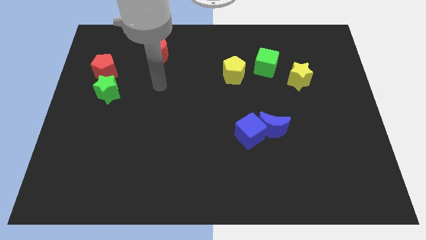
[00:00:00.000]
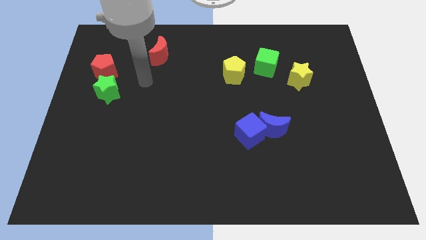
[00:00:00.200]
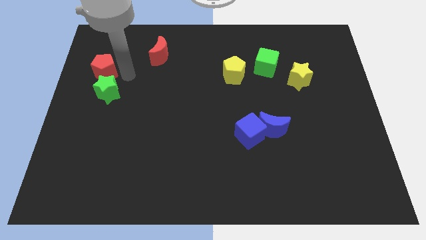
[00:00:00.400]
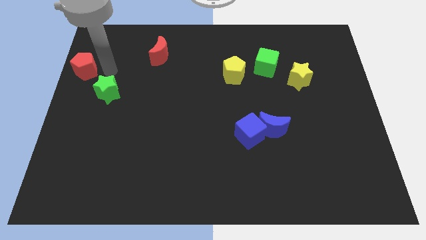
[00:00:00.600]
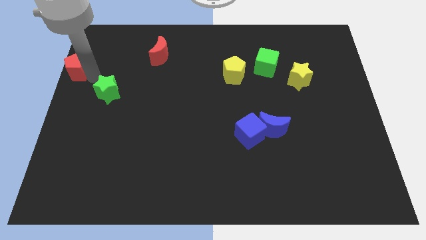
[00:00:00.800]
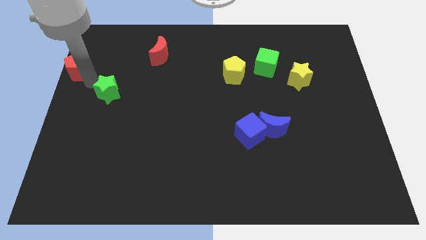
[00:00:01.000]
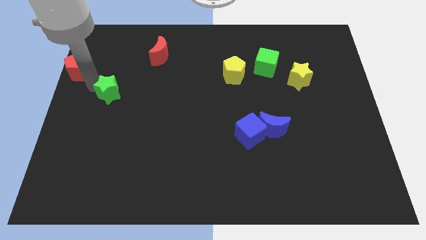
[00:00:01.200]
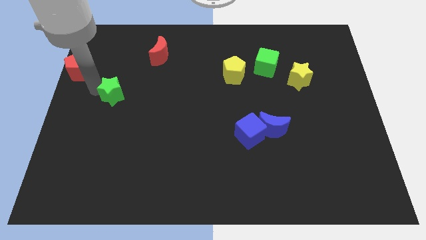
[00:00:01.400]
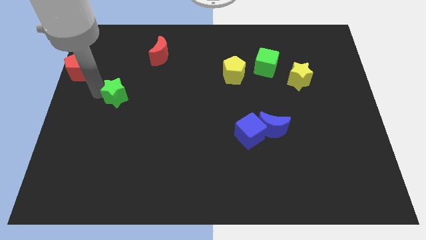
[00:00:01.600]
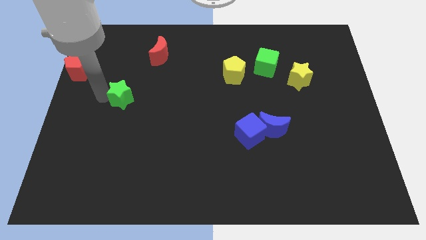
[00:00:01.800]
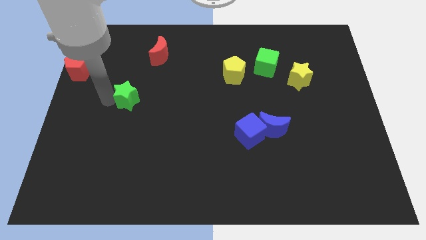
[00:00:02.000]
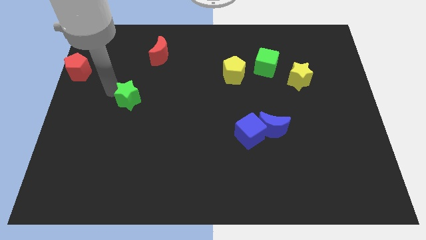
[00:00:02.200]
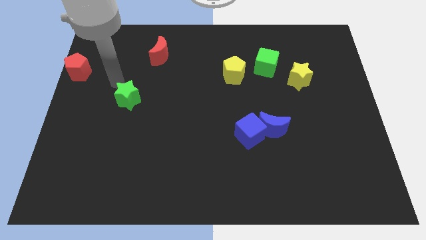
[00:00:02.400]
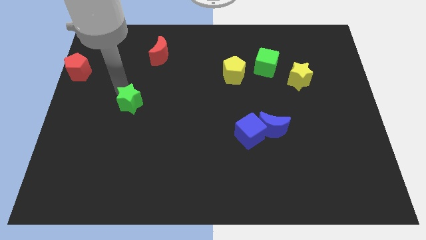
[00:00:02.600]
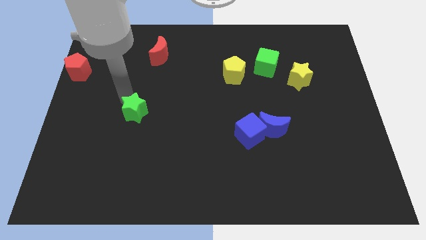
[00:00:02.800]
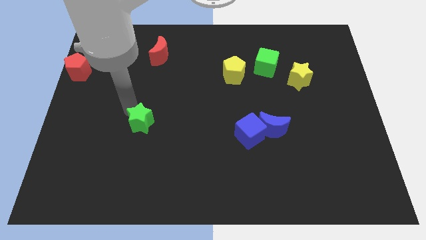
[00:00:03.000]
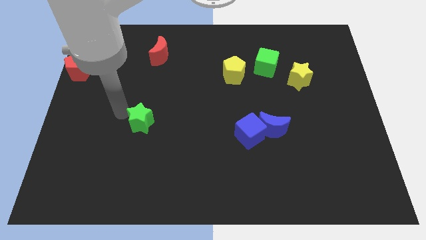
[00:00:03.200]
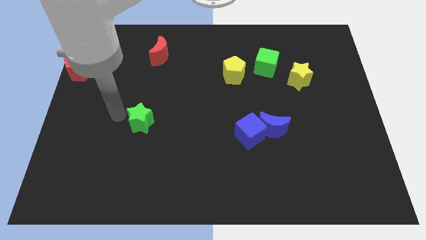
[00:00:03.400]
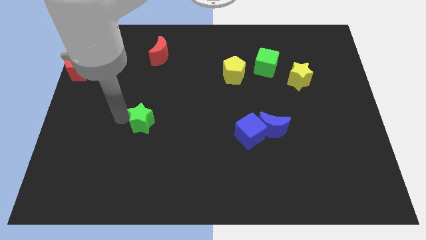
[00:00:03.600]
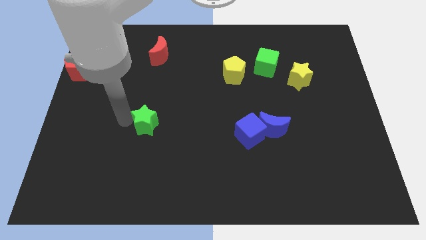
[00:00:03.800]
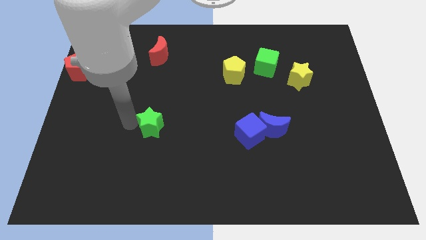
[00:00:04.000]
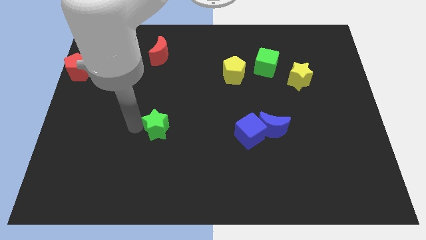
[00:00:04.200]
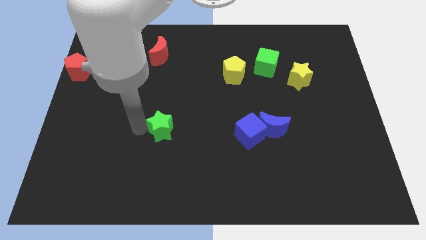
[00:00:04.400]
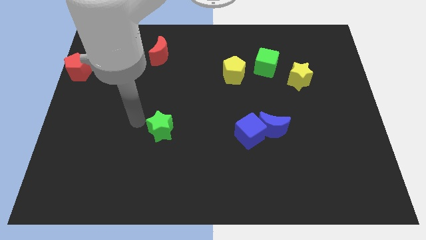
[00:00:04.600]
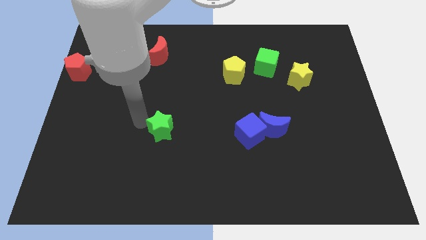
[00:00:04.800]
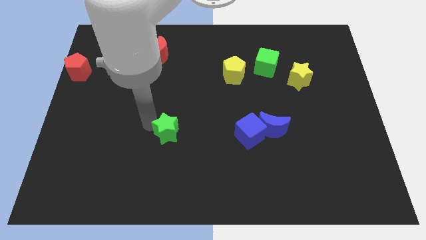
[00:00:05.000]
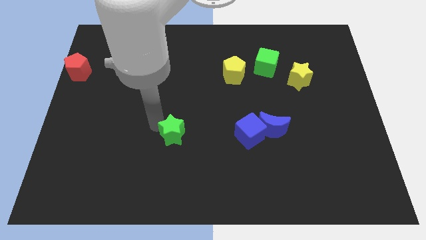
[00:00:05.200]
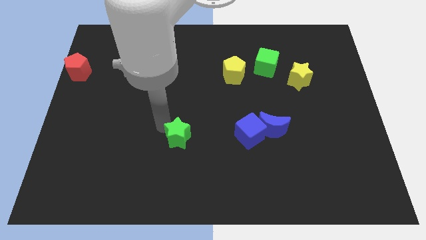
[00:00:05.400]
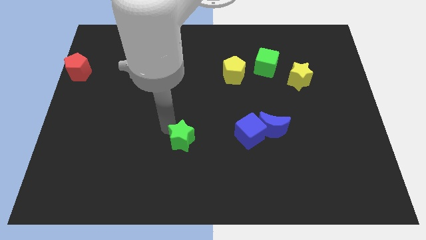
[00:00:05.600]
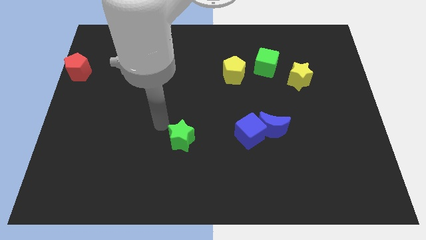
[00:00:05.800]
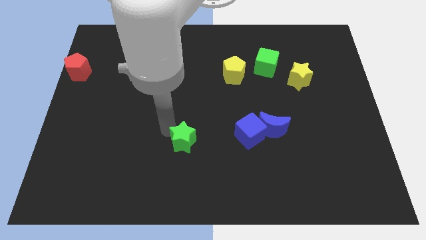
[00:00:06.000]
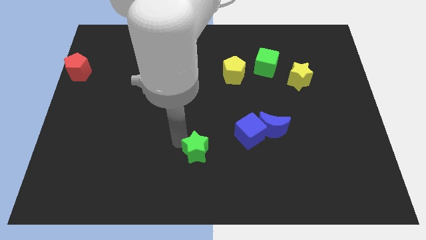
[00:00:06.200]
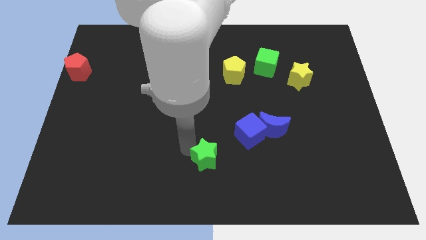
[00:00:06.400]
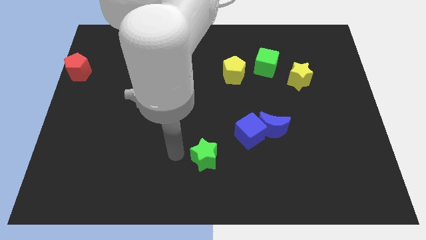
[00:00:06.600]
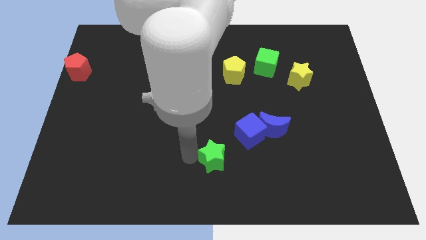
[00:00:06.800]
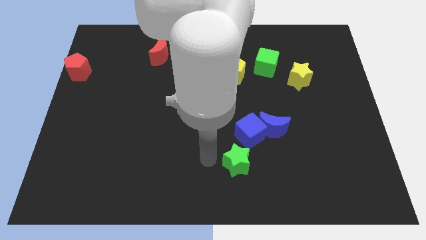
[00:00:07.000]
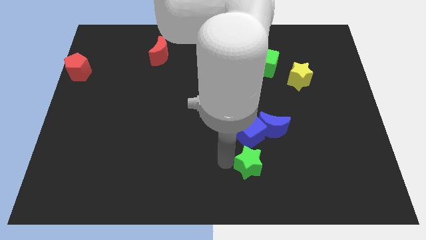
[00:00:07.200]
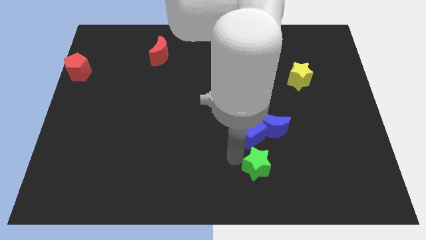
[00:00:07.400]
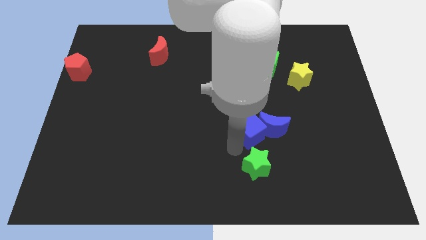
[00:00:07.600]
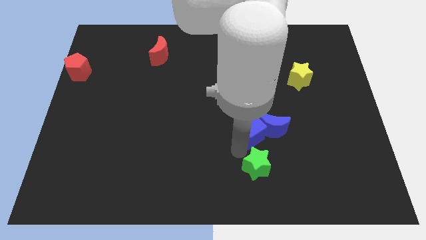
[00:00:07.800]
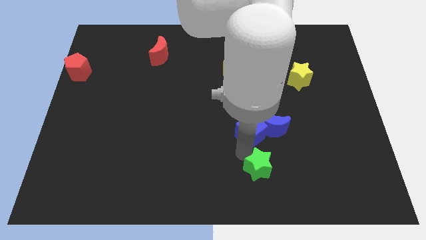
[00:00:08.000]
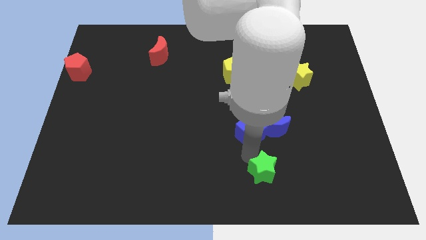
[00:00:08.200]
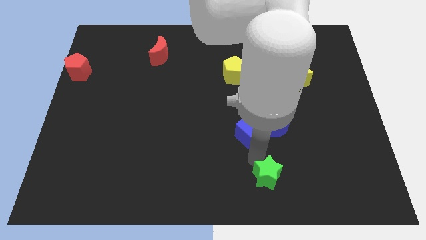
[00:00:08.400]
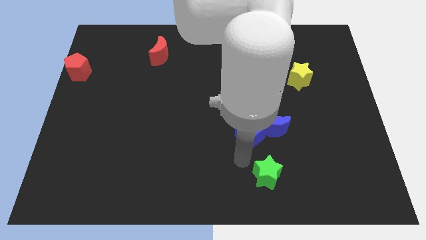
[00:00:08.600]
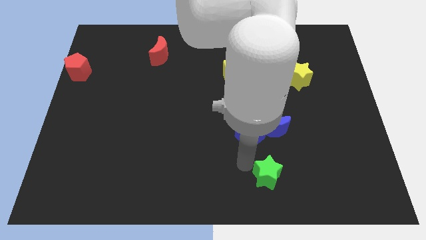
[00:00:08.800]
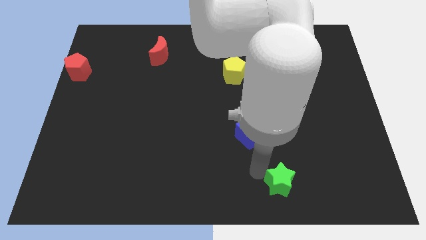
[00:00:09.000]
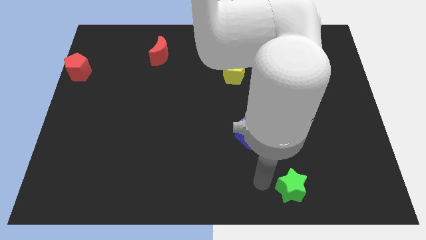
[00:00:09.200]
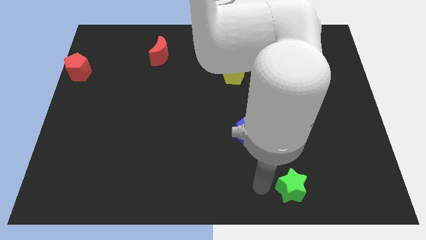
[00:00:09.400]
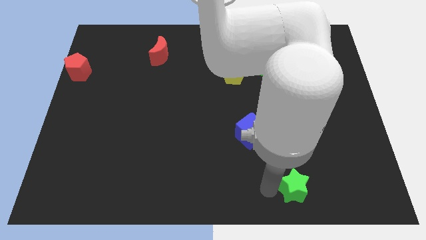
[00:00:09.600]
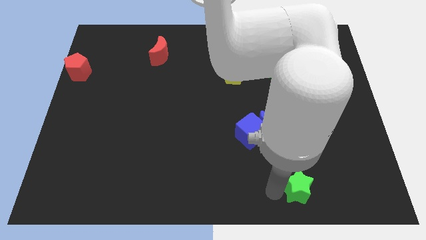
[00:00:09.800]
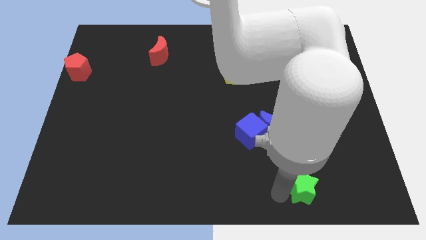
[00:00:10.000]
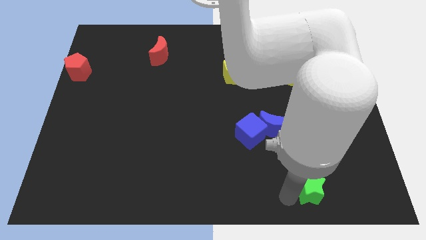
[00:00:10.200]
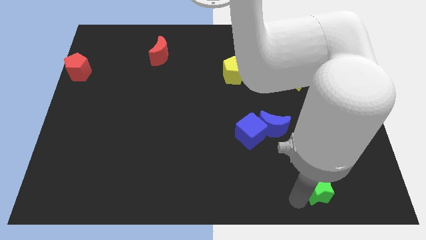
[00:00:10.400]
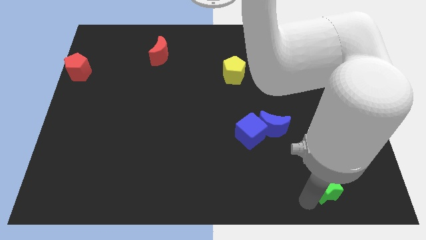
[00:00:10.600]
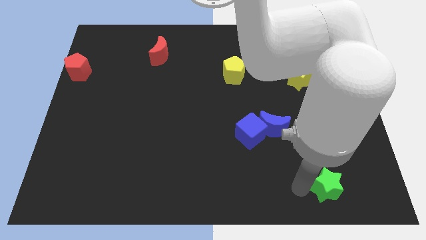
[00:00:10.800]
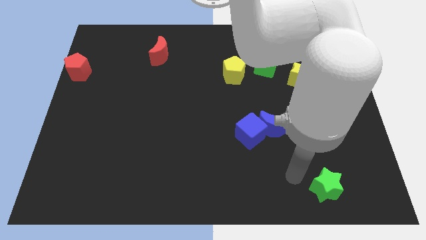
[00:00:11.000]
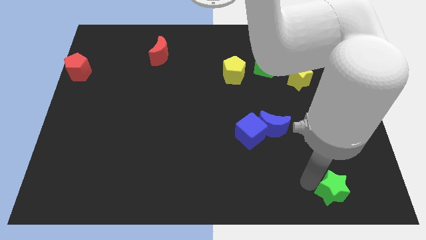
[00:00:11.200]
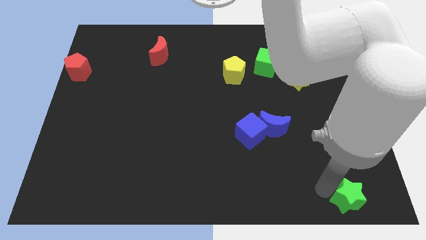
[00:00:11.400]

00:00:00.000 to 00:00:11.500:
move the green star to the bottom right corner
